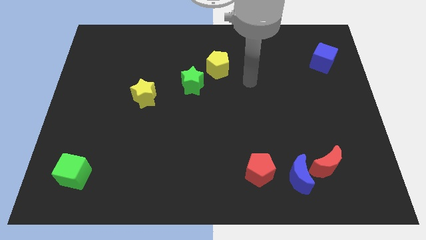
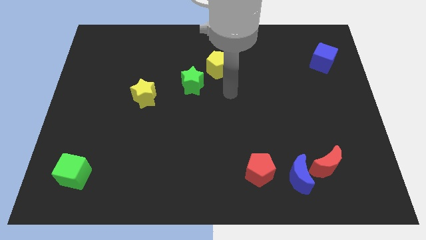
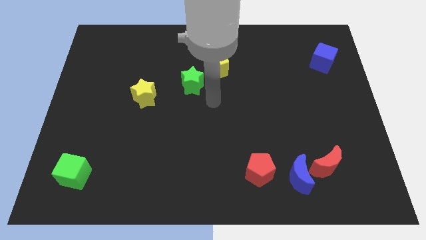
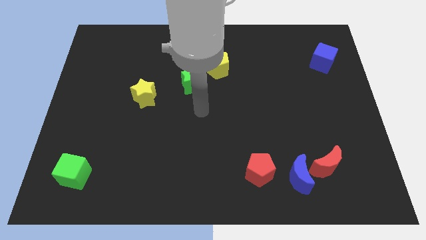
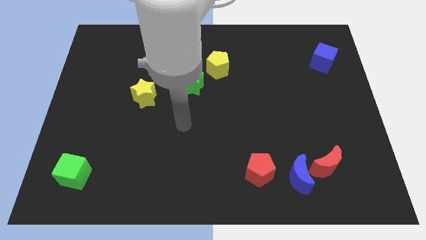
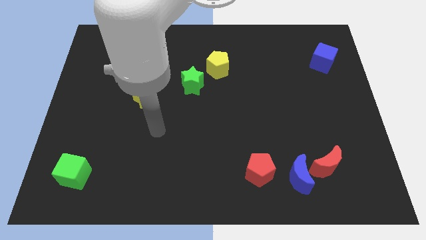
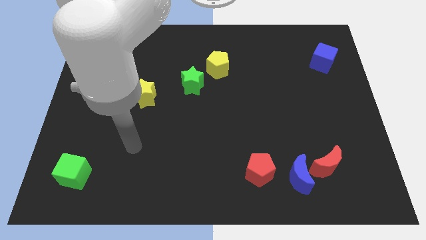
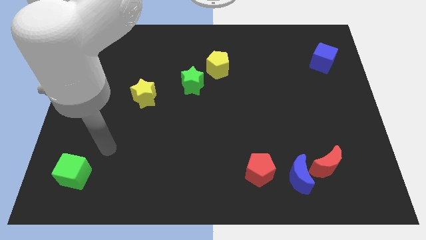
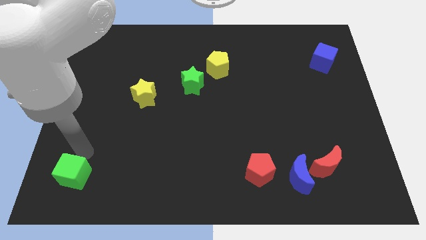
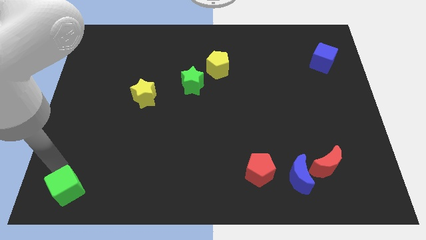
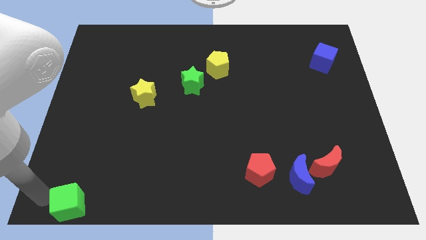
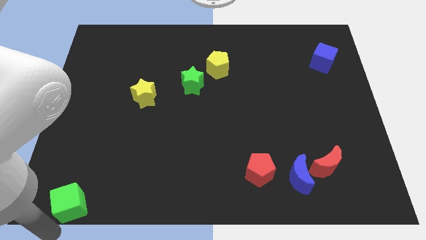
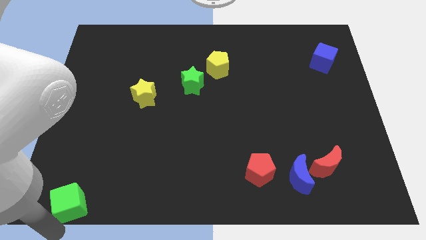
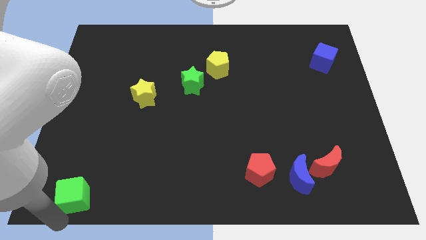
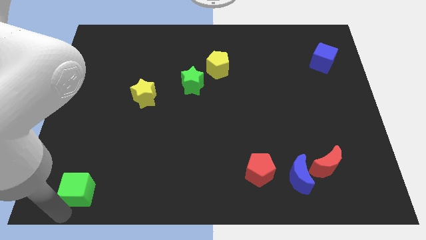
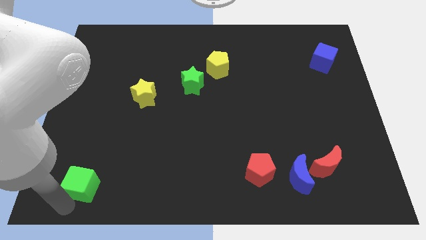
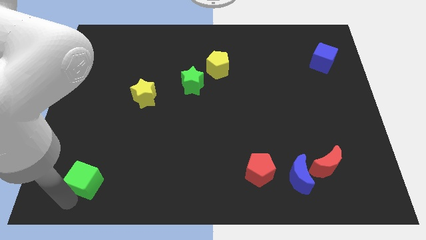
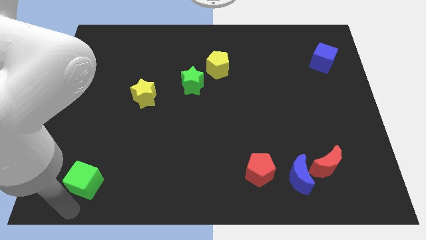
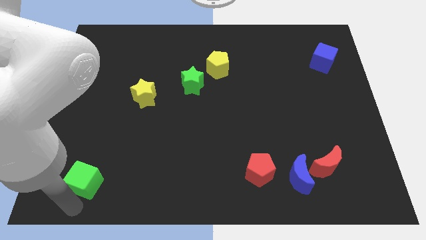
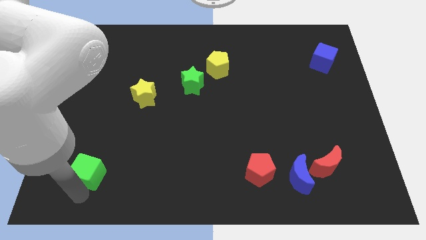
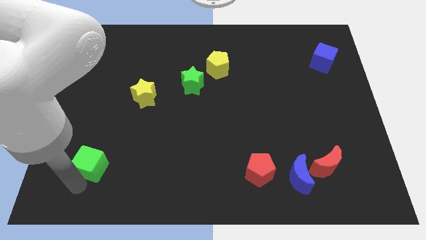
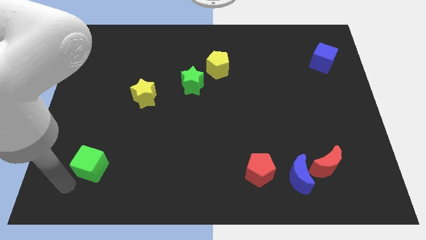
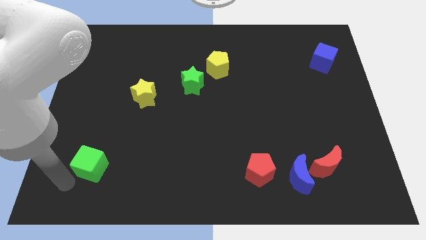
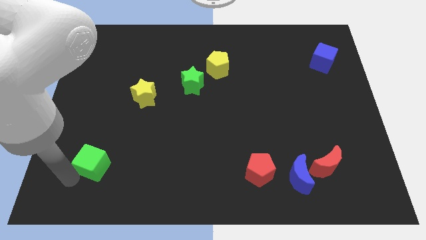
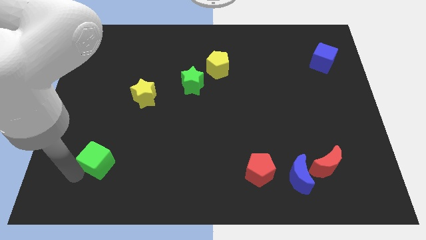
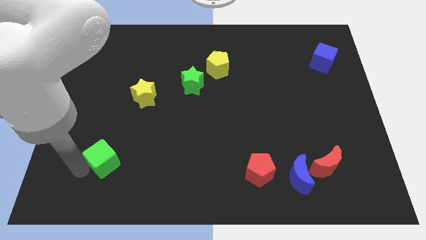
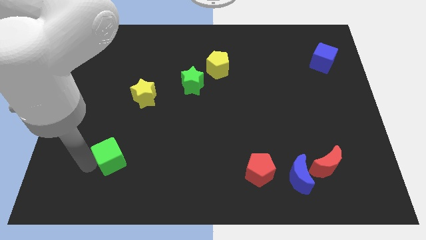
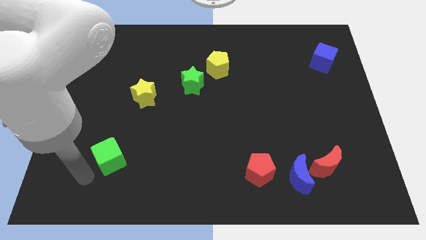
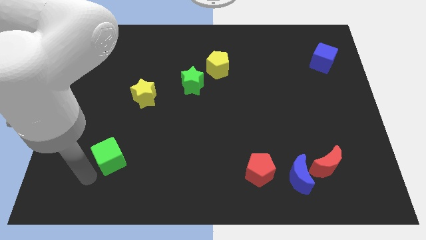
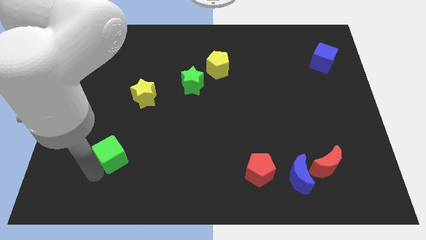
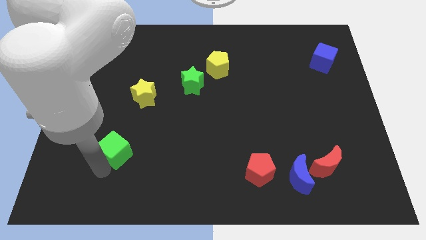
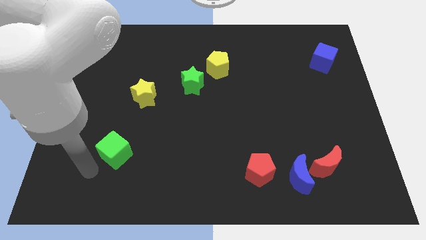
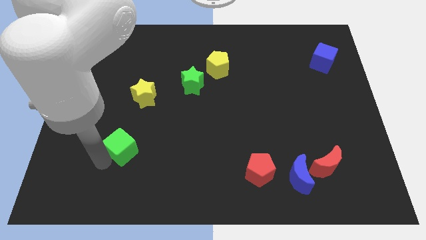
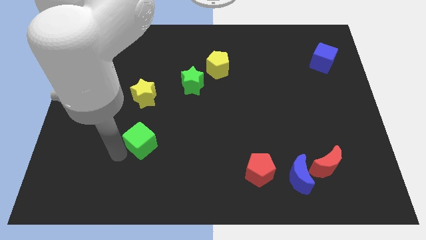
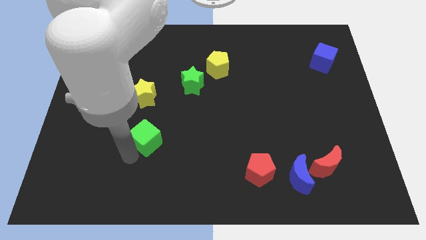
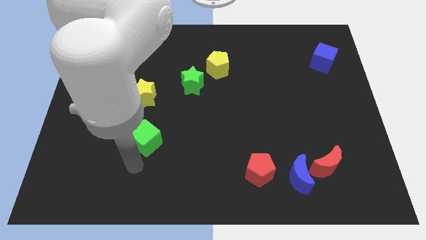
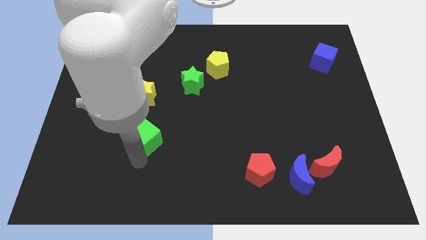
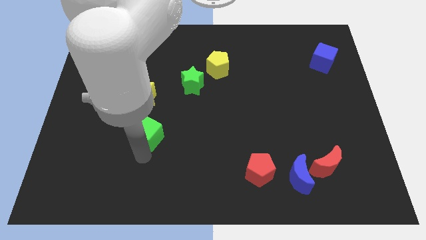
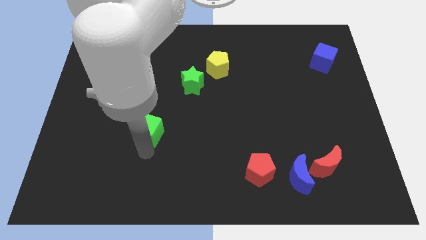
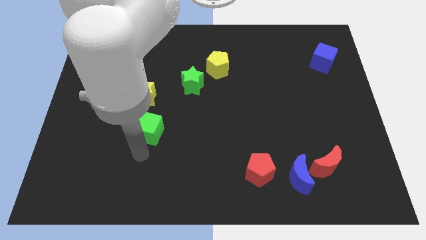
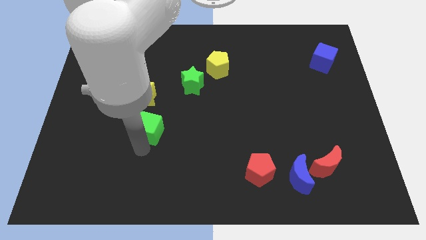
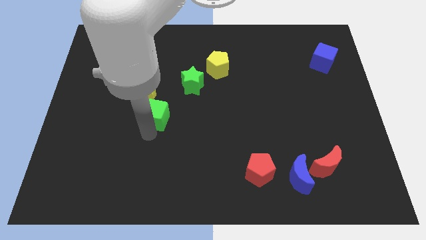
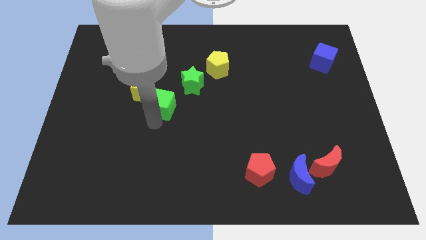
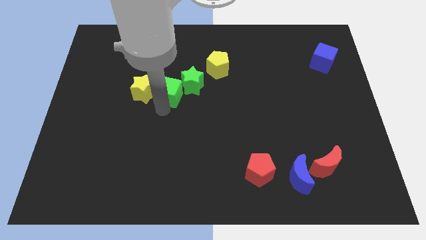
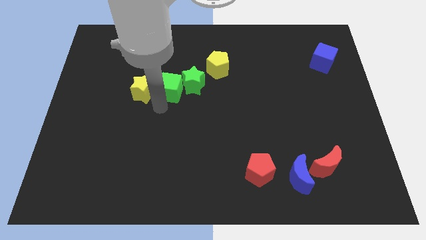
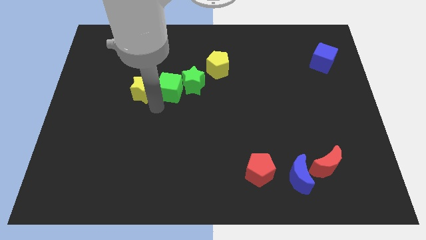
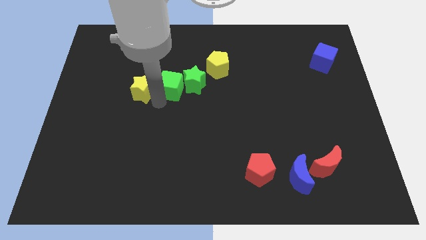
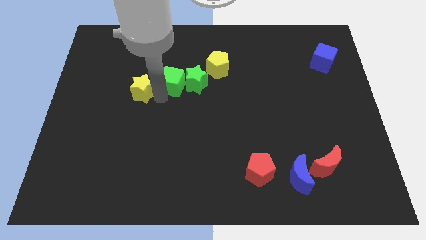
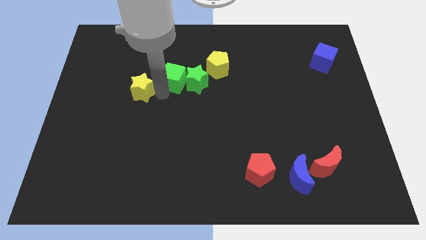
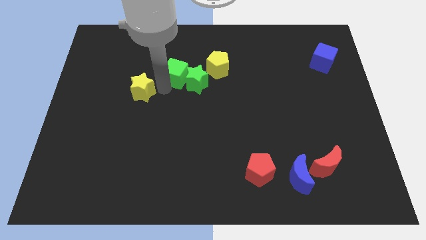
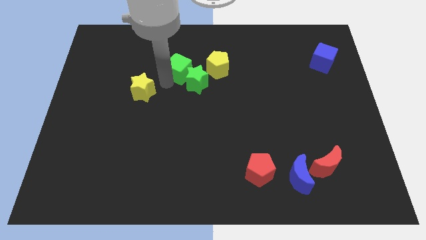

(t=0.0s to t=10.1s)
push the green cube to the top of the green star

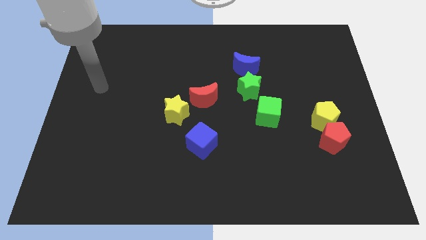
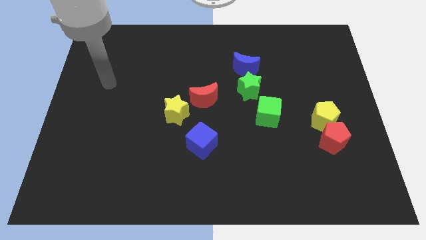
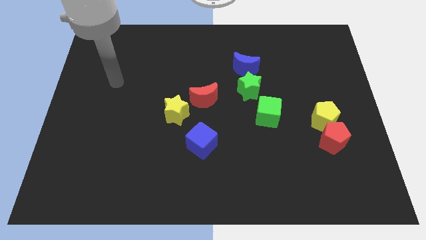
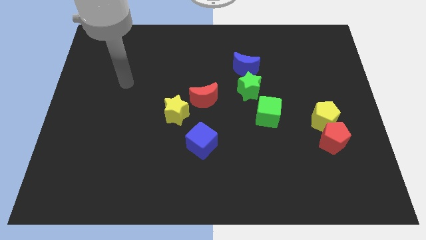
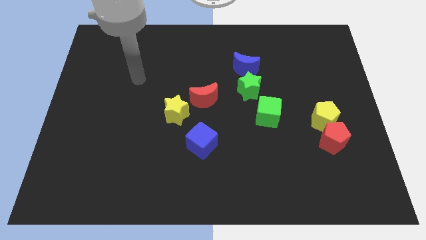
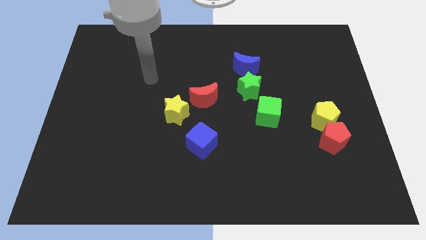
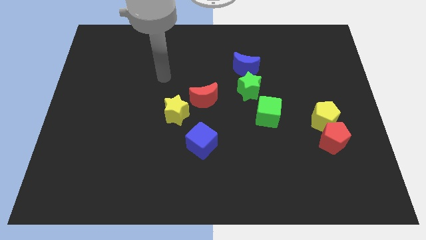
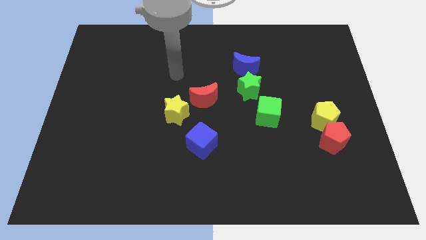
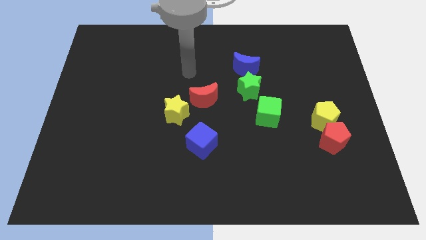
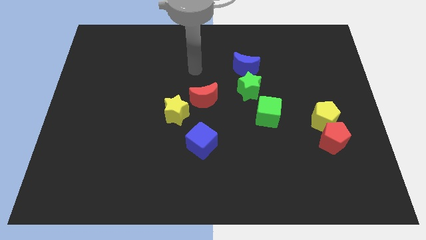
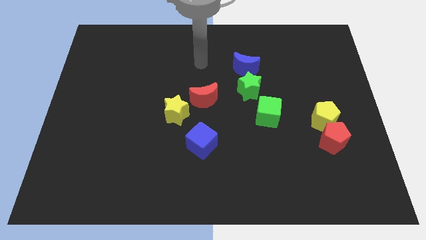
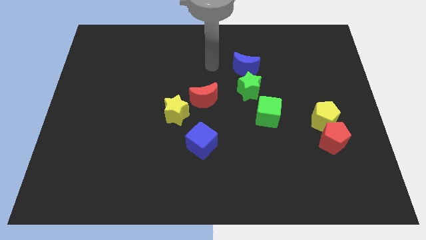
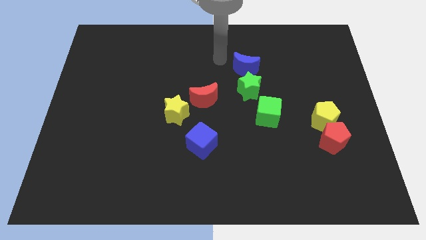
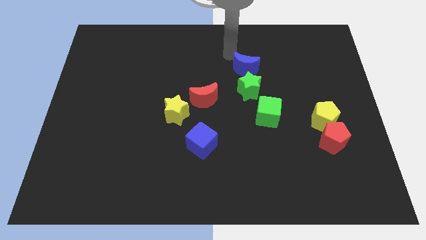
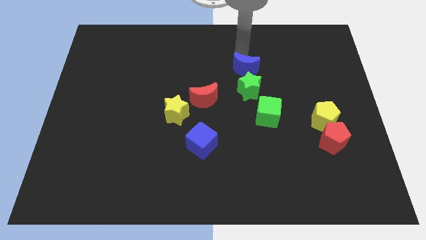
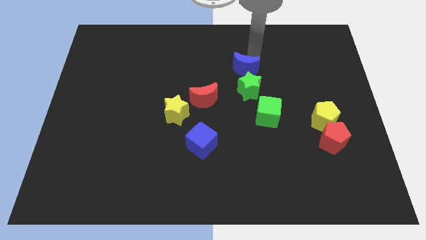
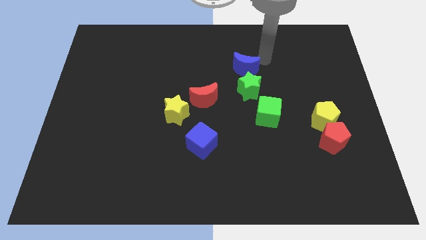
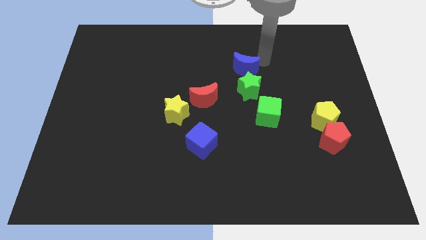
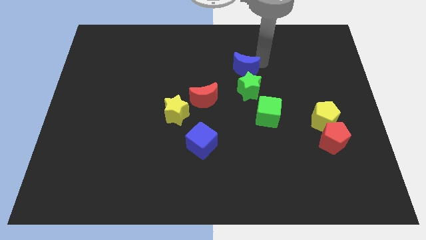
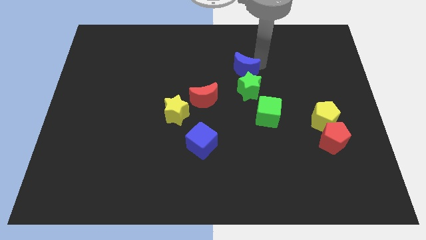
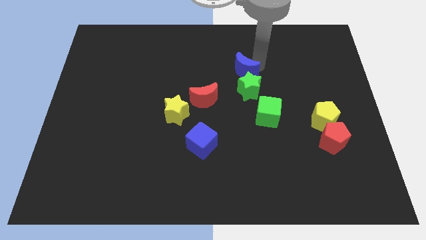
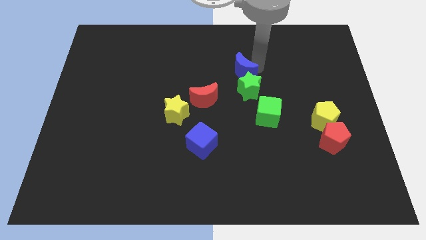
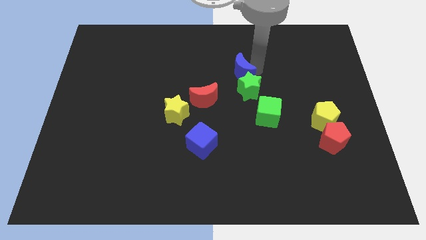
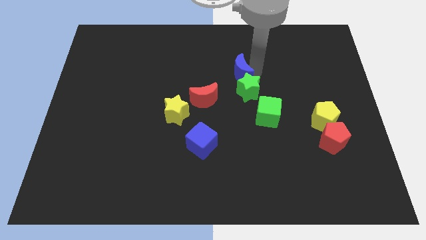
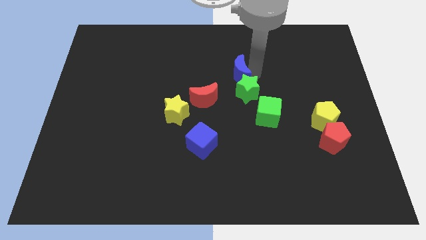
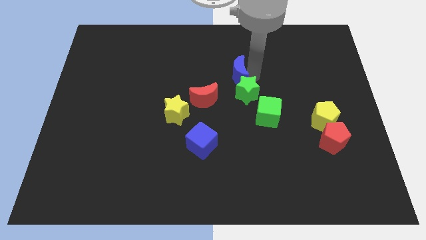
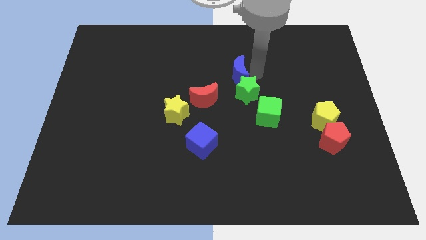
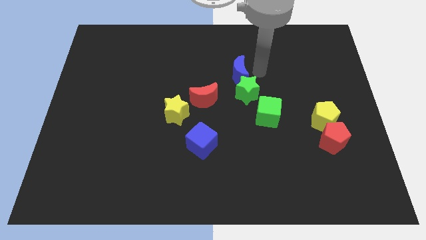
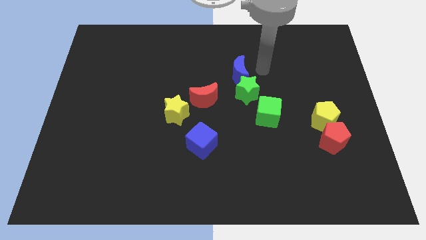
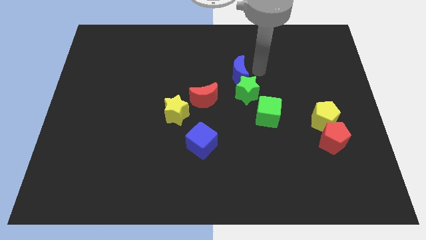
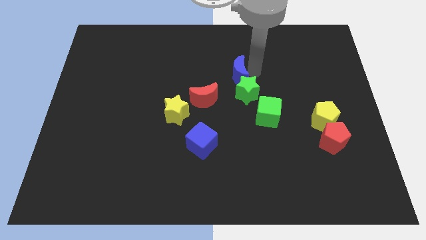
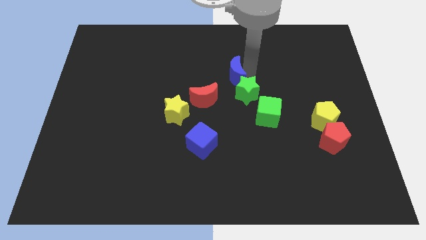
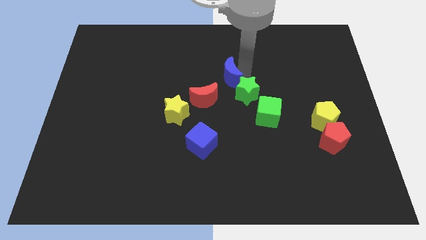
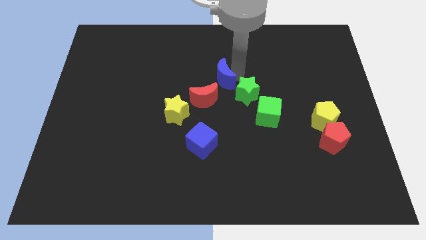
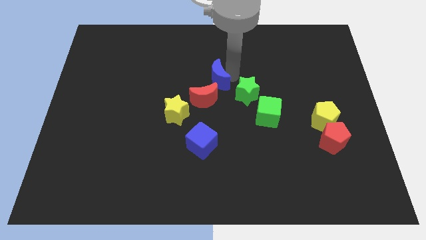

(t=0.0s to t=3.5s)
slide the blue moon to the left side of the green star
